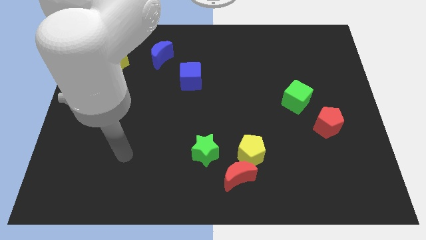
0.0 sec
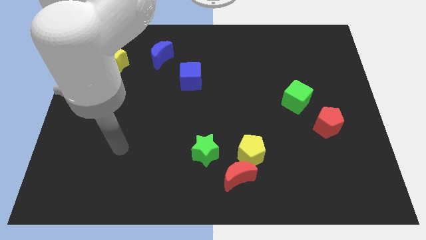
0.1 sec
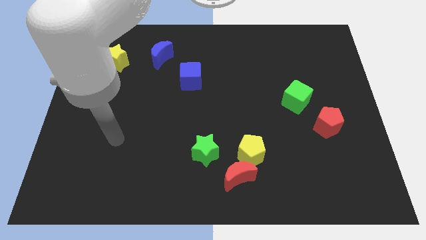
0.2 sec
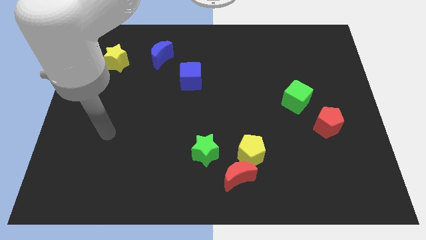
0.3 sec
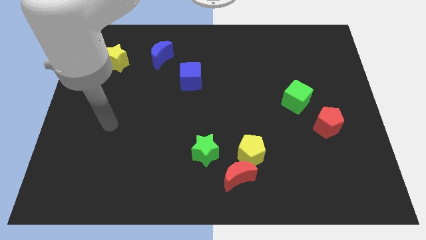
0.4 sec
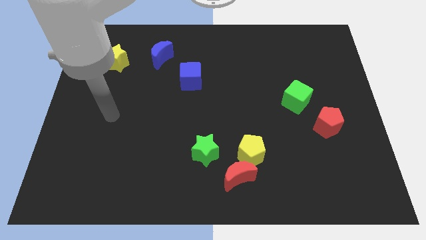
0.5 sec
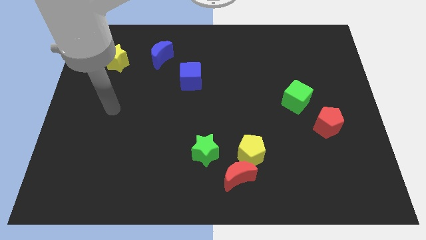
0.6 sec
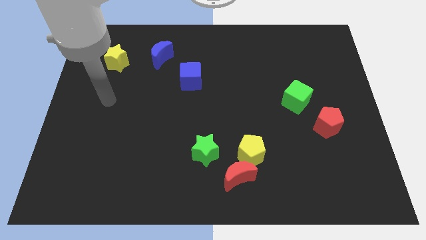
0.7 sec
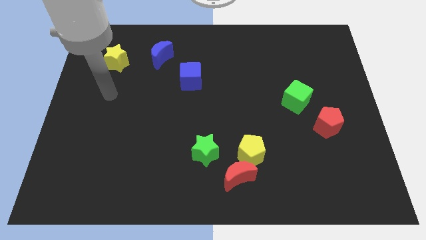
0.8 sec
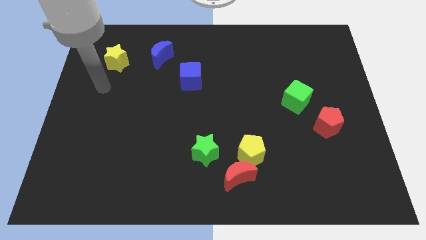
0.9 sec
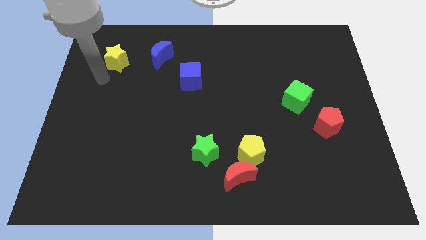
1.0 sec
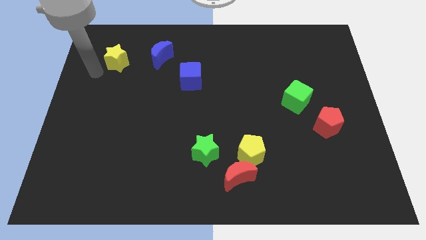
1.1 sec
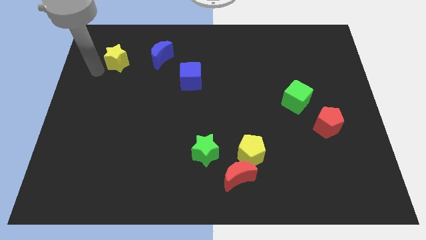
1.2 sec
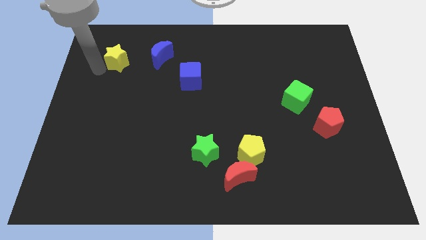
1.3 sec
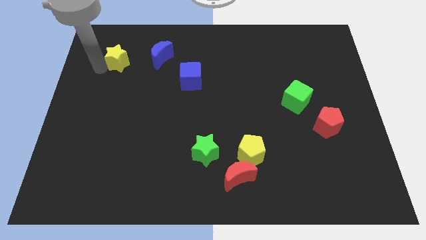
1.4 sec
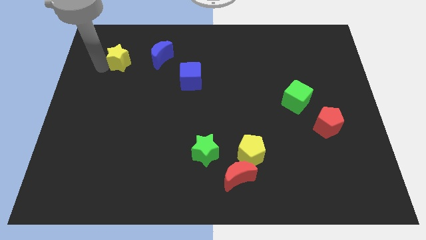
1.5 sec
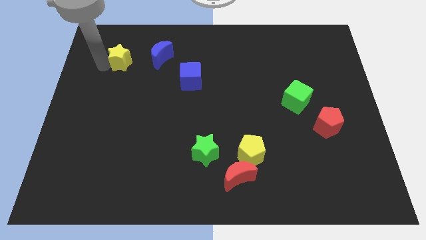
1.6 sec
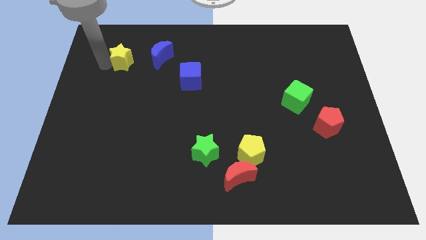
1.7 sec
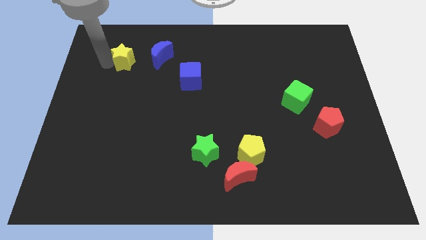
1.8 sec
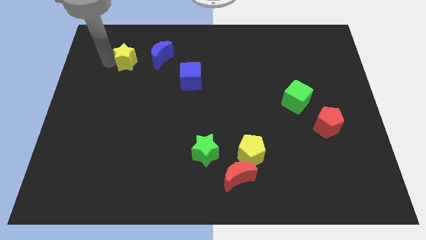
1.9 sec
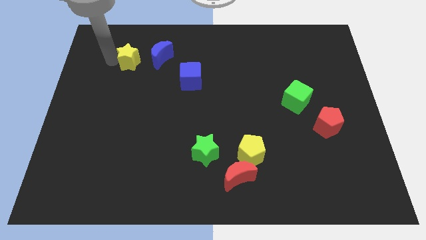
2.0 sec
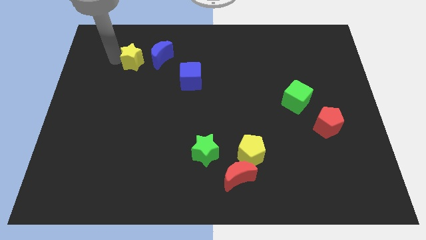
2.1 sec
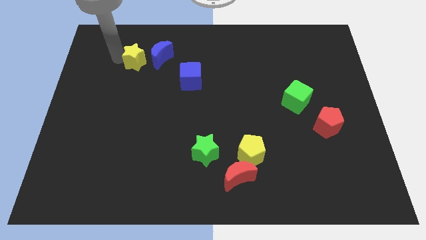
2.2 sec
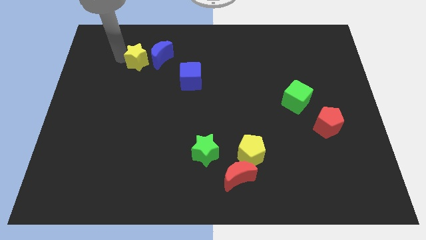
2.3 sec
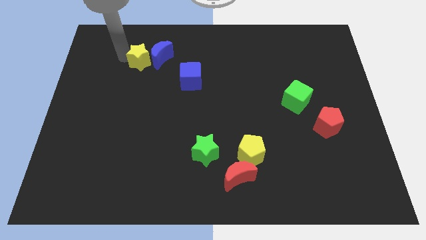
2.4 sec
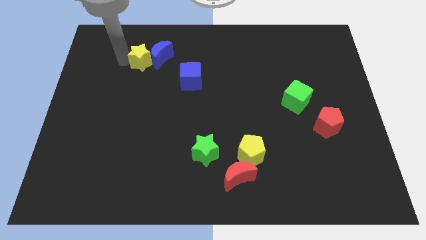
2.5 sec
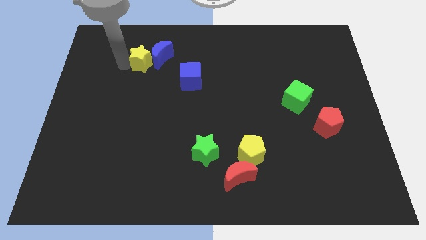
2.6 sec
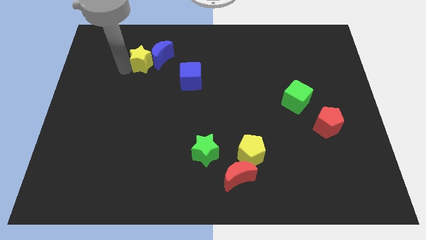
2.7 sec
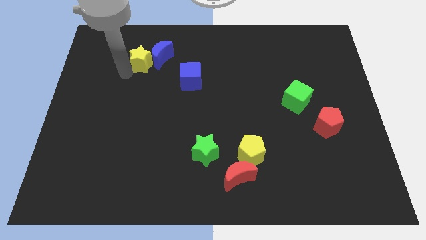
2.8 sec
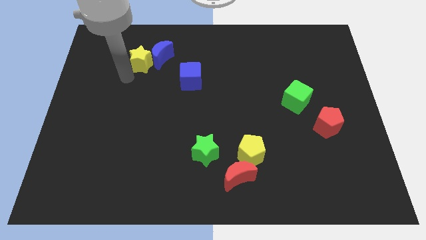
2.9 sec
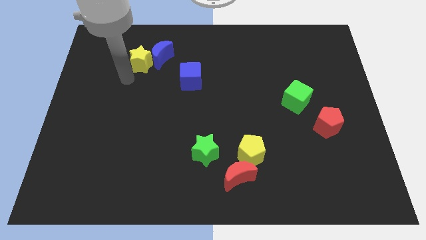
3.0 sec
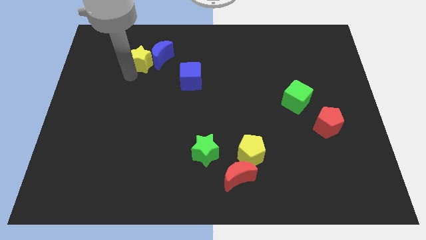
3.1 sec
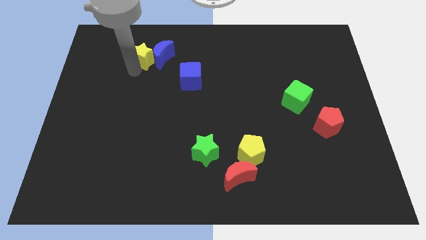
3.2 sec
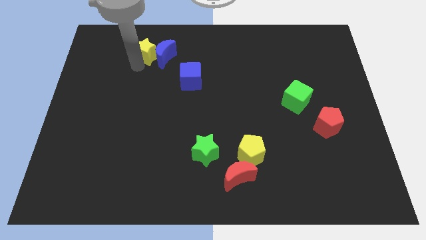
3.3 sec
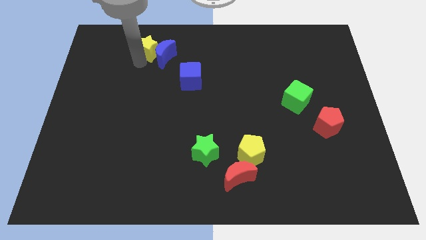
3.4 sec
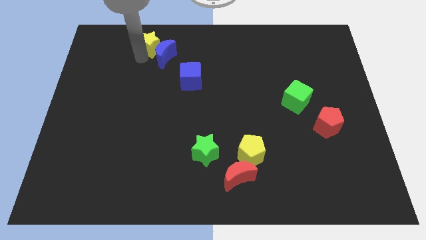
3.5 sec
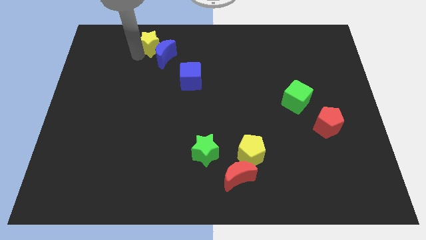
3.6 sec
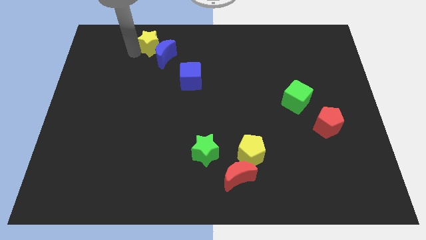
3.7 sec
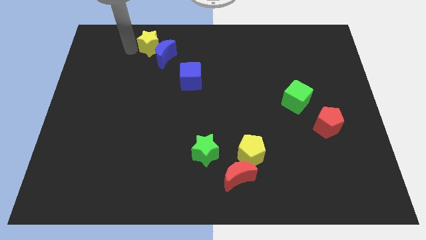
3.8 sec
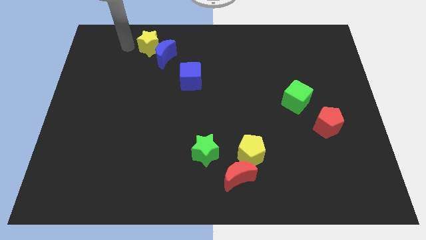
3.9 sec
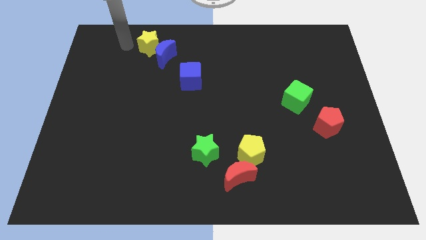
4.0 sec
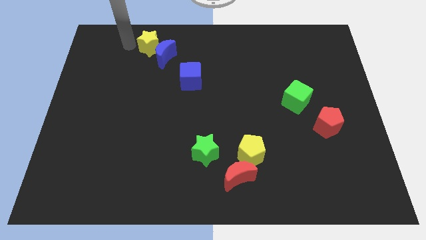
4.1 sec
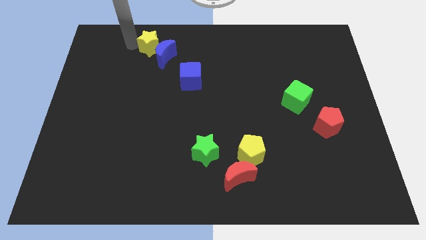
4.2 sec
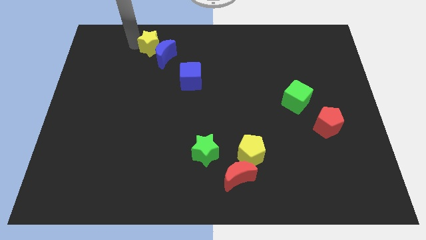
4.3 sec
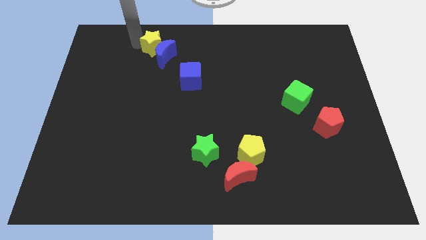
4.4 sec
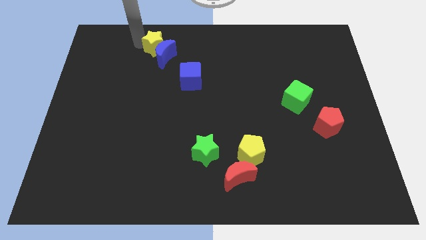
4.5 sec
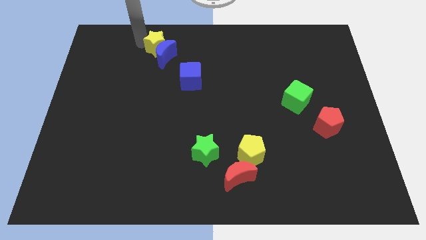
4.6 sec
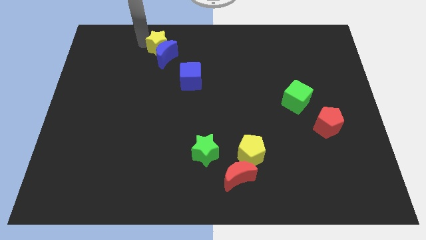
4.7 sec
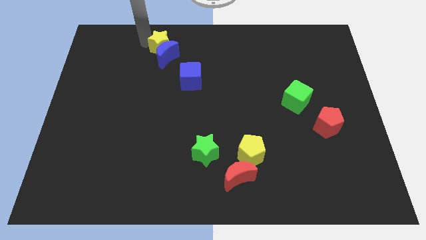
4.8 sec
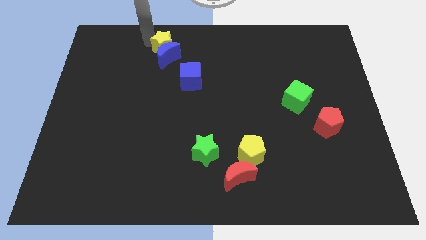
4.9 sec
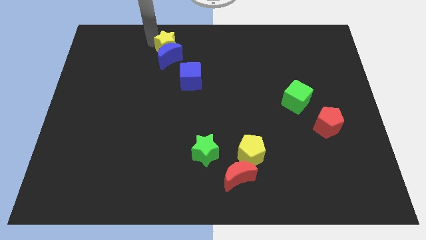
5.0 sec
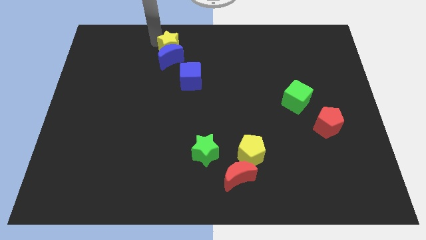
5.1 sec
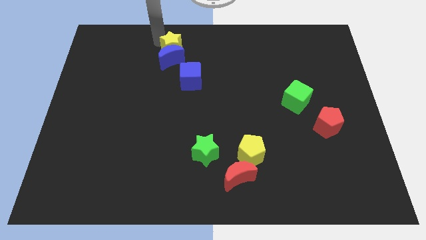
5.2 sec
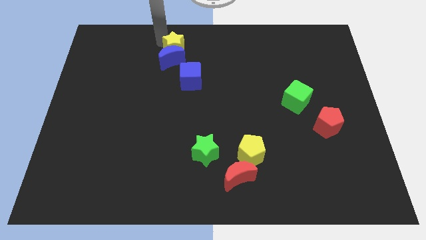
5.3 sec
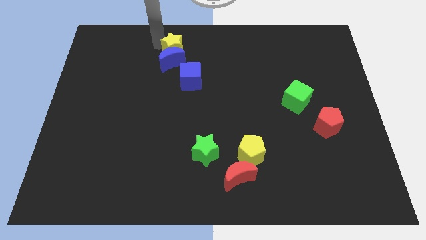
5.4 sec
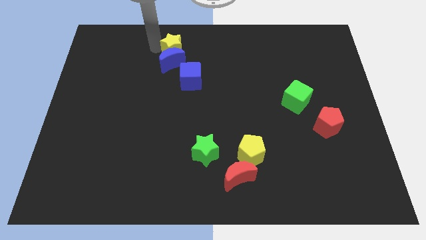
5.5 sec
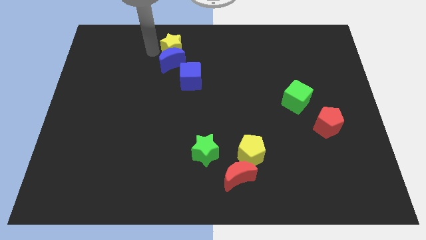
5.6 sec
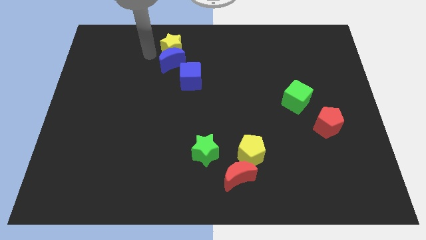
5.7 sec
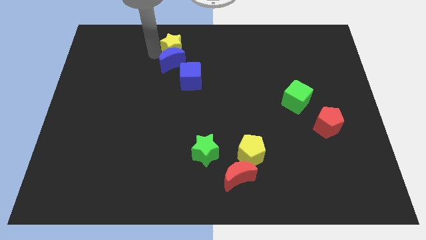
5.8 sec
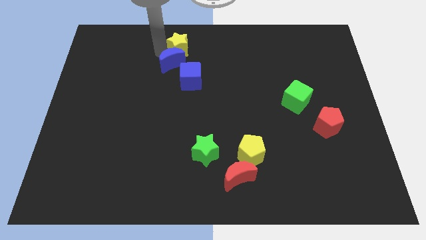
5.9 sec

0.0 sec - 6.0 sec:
push the yellow star to the top side
